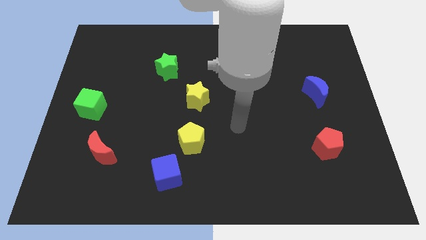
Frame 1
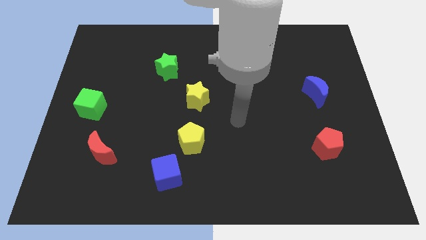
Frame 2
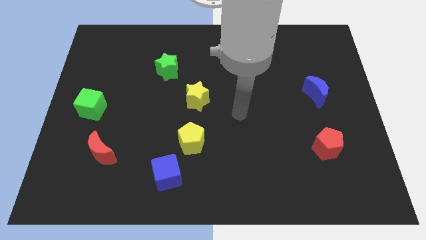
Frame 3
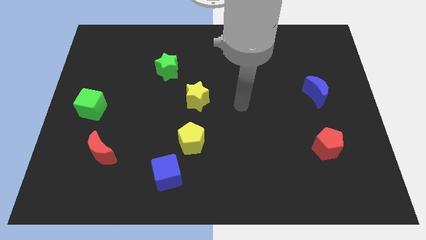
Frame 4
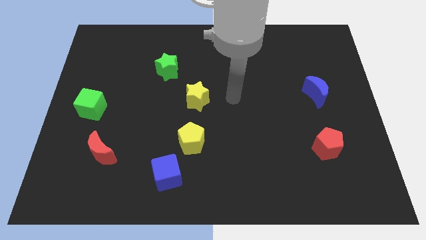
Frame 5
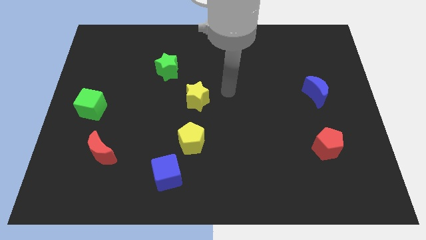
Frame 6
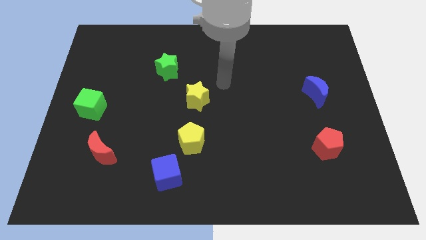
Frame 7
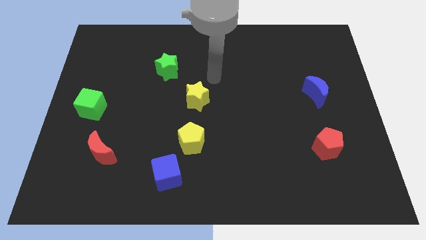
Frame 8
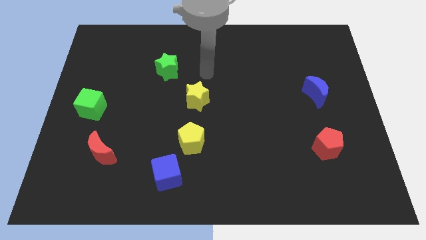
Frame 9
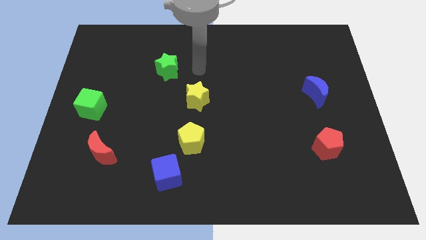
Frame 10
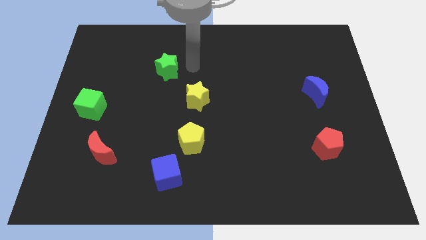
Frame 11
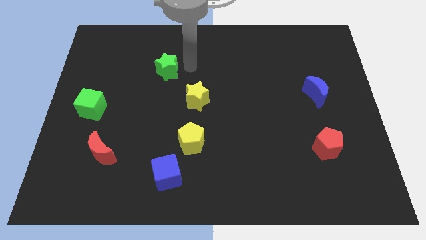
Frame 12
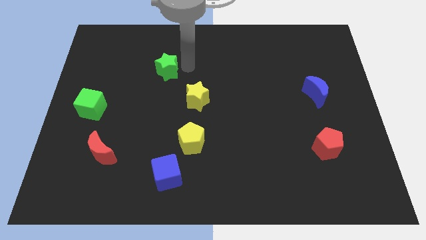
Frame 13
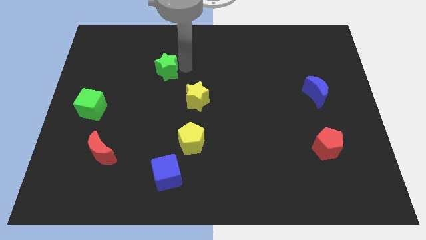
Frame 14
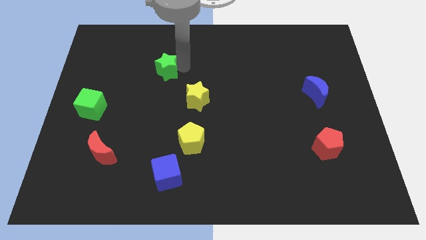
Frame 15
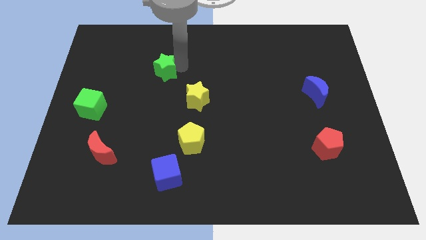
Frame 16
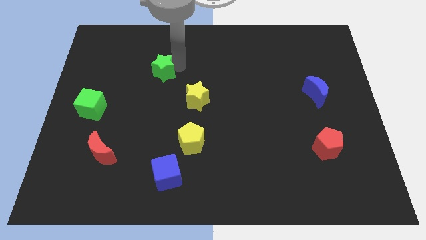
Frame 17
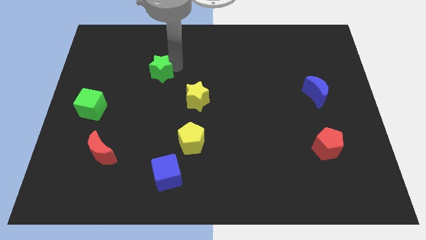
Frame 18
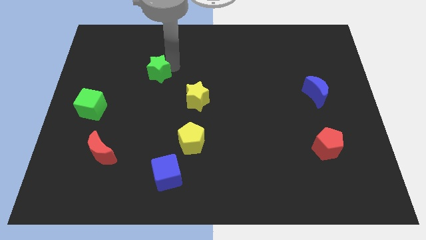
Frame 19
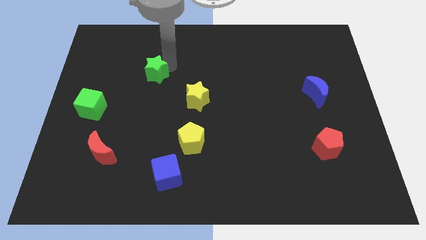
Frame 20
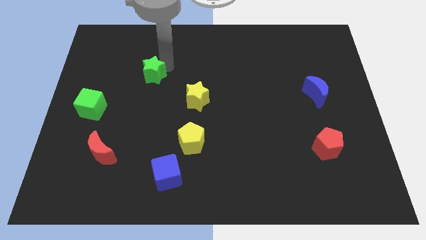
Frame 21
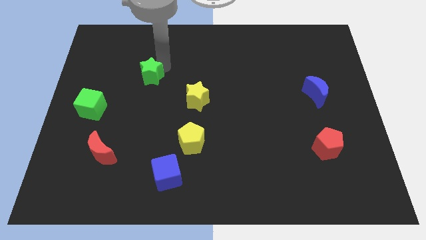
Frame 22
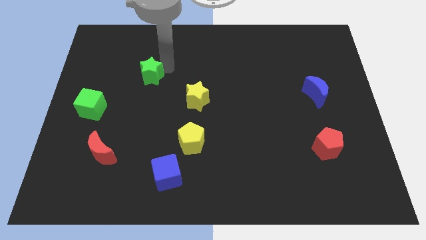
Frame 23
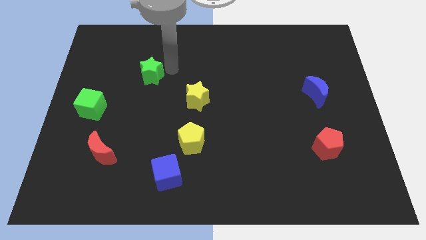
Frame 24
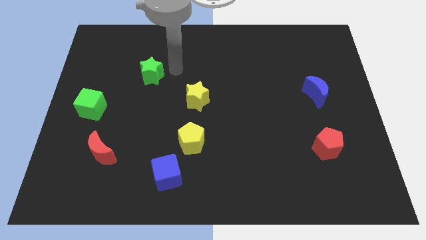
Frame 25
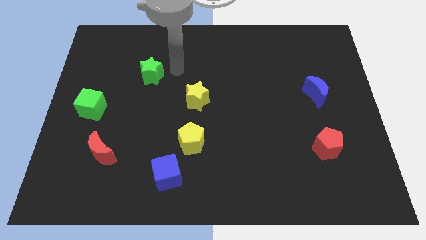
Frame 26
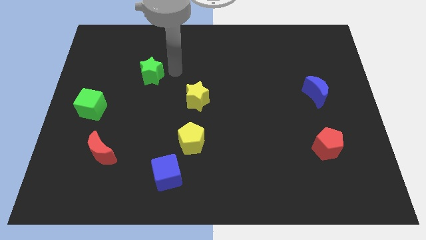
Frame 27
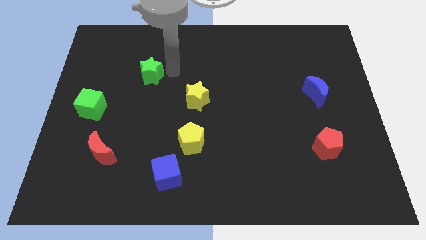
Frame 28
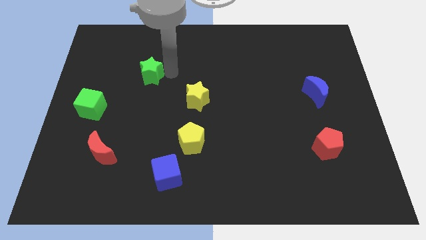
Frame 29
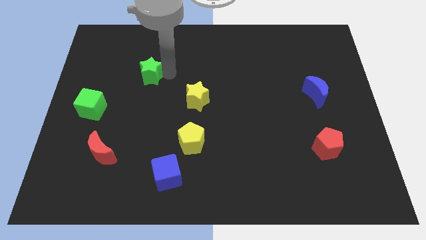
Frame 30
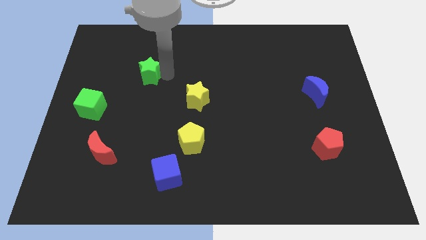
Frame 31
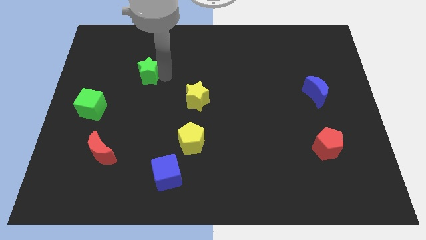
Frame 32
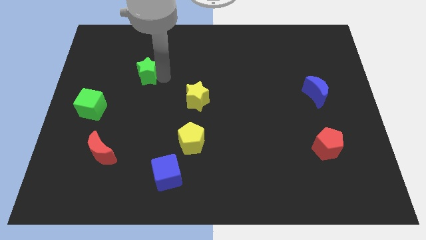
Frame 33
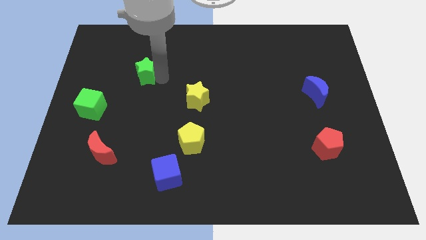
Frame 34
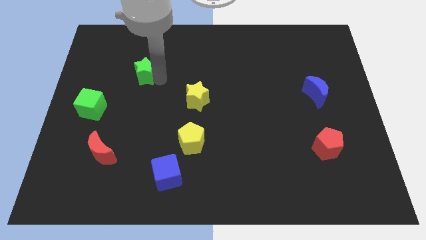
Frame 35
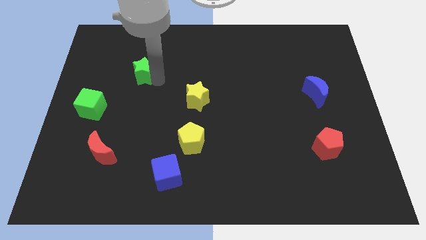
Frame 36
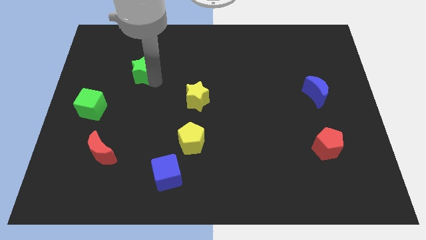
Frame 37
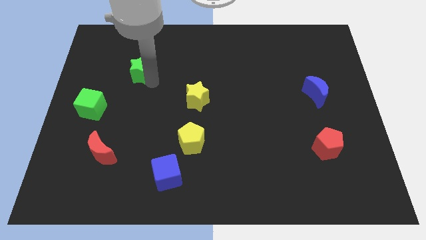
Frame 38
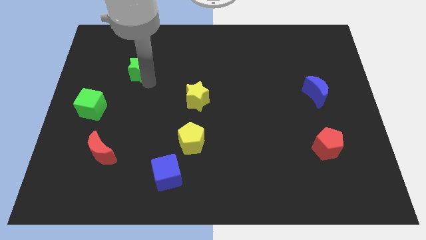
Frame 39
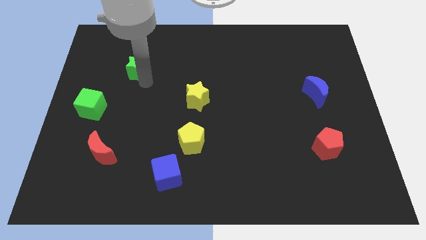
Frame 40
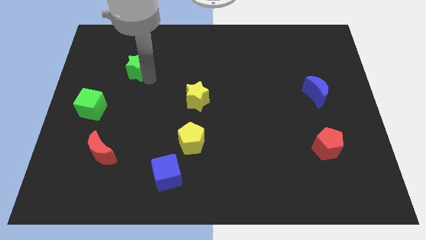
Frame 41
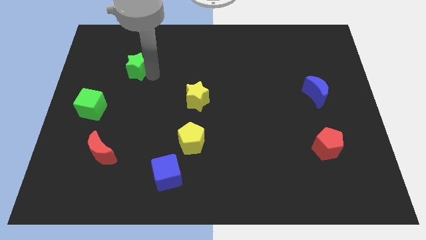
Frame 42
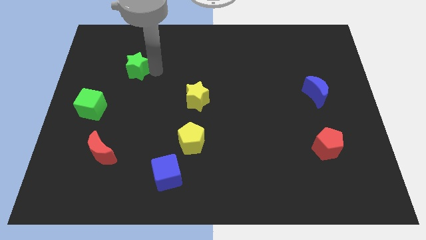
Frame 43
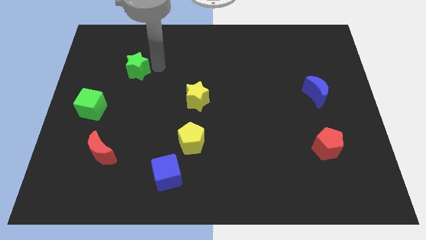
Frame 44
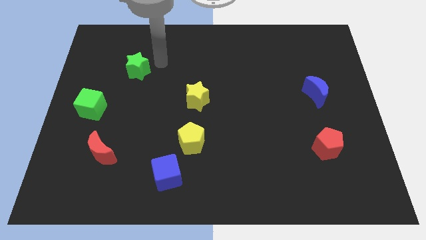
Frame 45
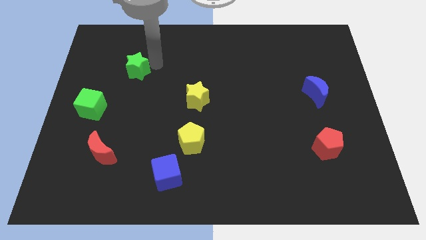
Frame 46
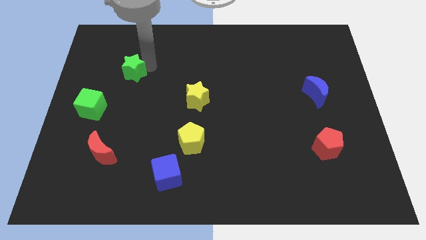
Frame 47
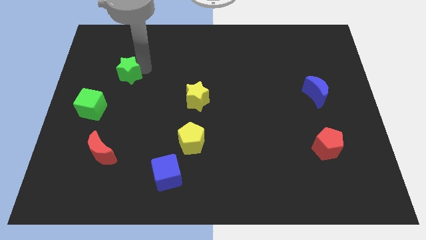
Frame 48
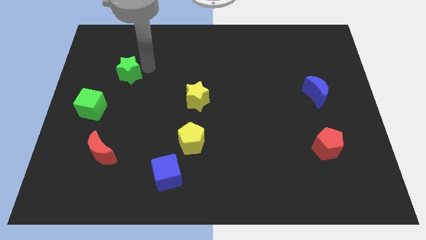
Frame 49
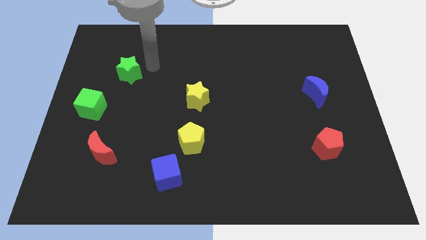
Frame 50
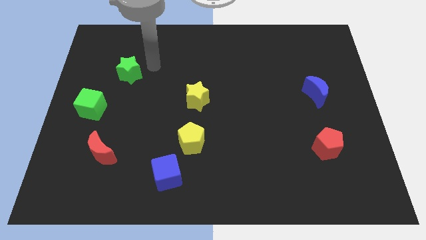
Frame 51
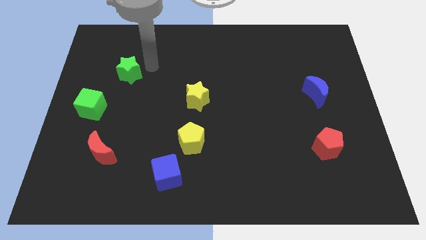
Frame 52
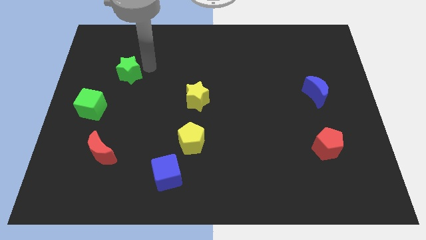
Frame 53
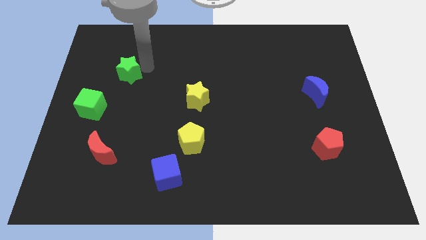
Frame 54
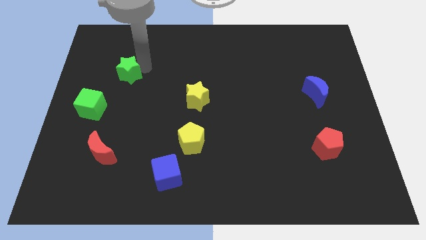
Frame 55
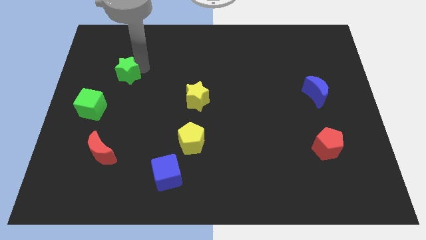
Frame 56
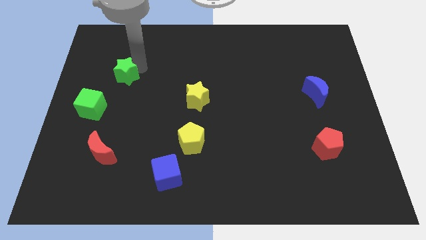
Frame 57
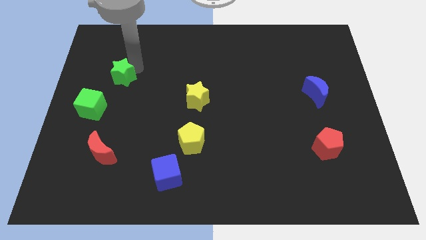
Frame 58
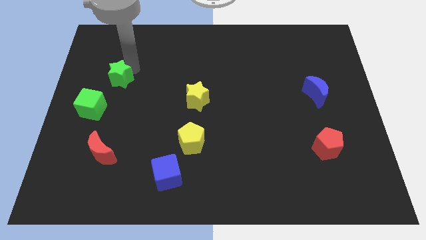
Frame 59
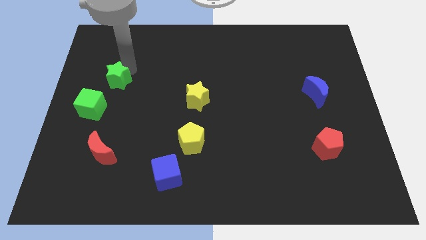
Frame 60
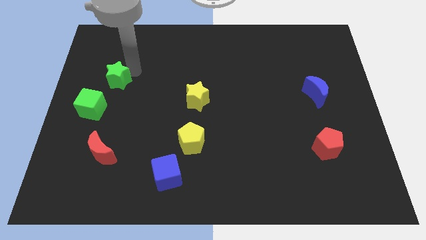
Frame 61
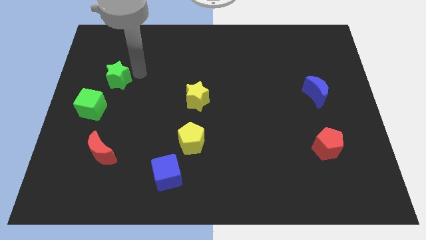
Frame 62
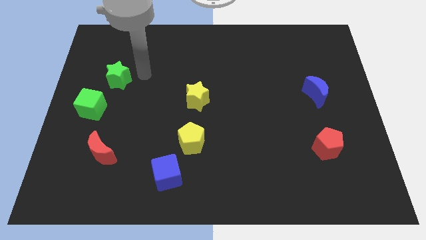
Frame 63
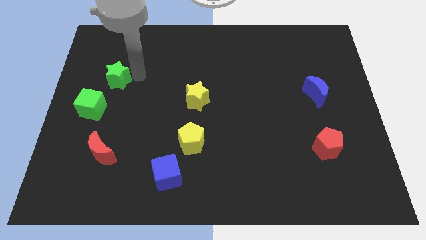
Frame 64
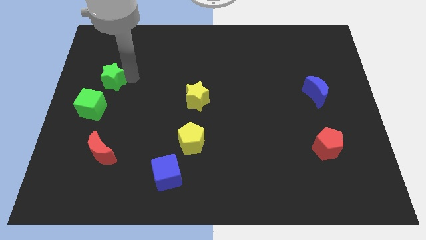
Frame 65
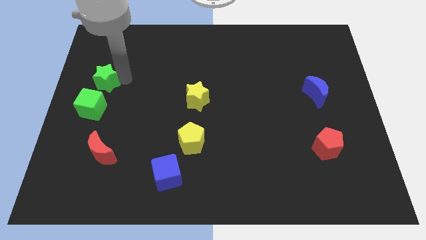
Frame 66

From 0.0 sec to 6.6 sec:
move the green star to the left side of the board

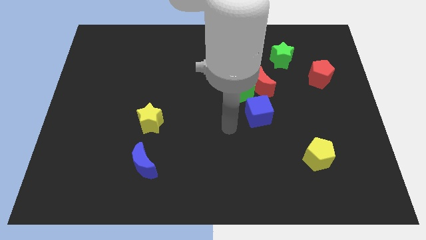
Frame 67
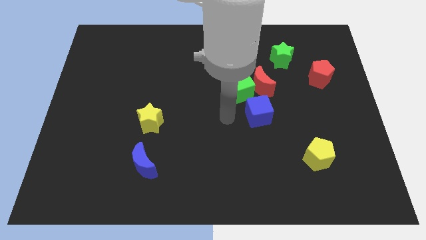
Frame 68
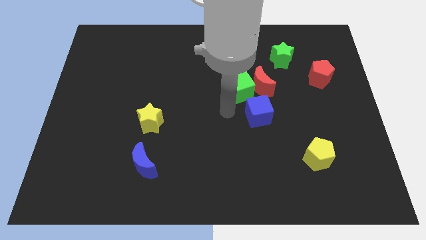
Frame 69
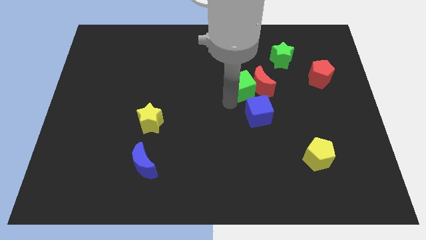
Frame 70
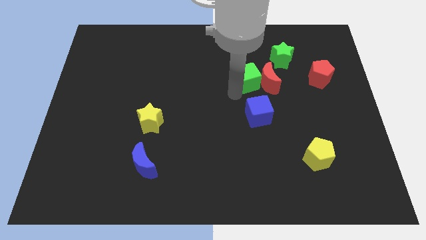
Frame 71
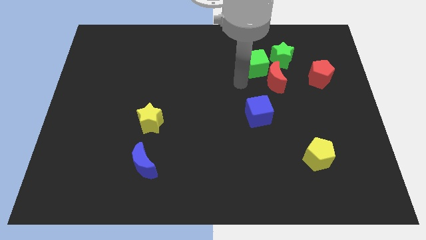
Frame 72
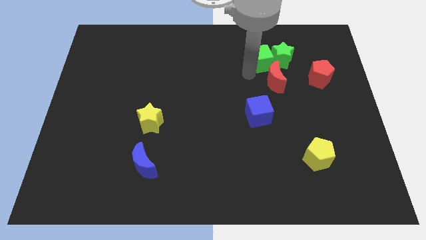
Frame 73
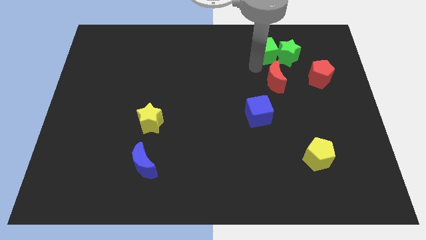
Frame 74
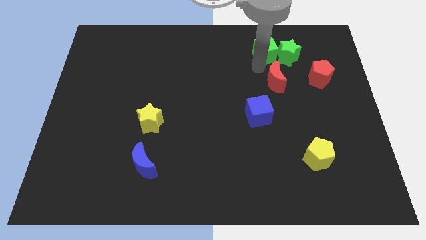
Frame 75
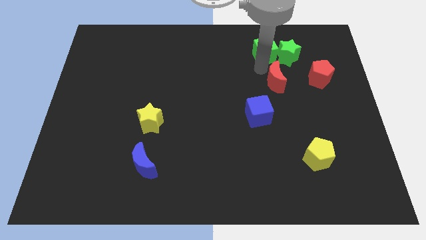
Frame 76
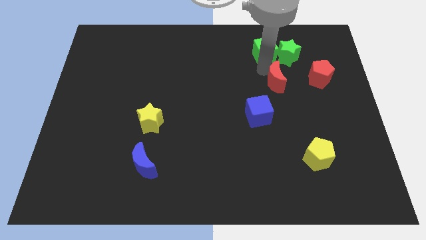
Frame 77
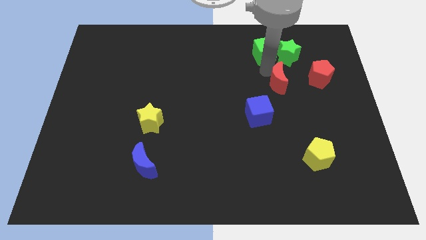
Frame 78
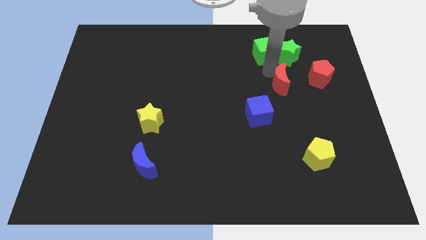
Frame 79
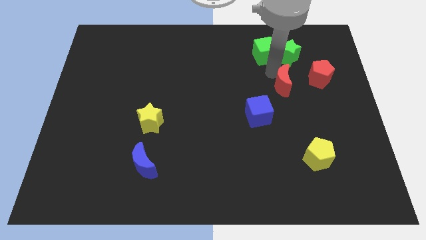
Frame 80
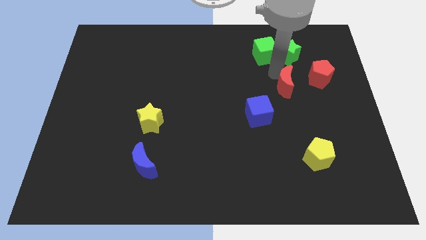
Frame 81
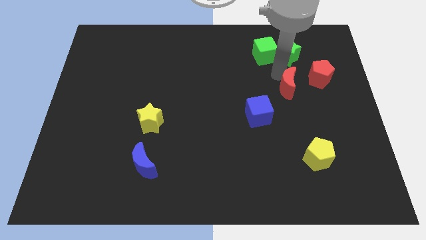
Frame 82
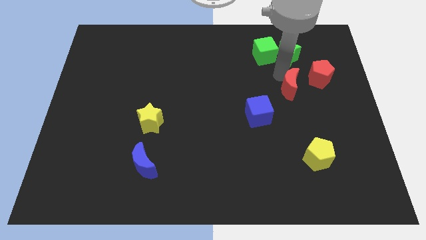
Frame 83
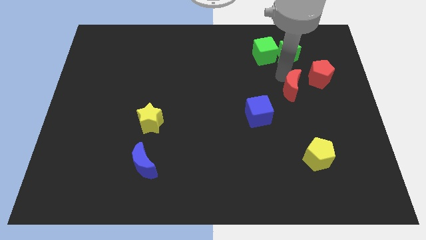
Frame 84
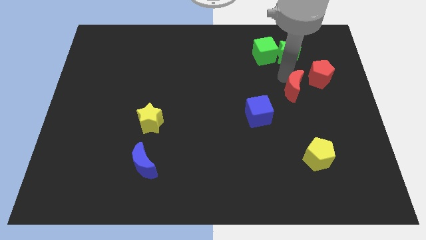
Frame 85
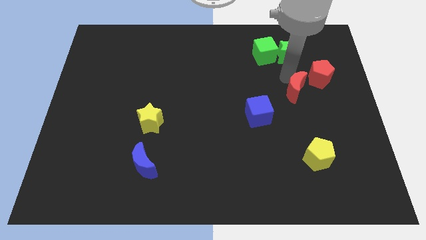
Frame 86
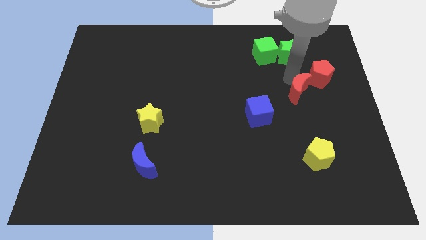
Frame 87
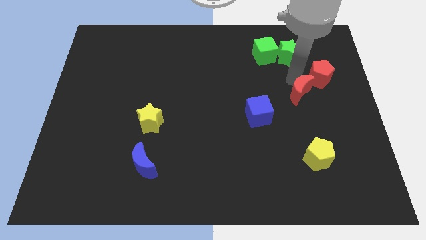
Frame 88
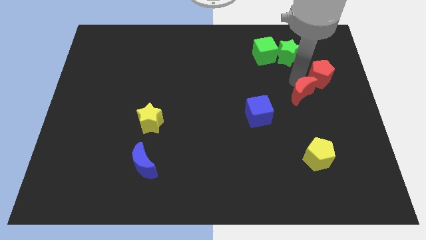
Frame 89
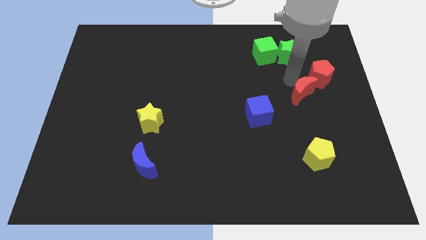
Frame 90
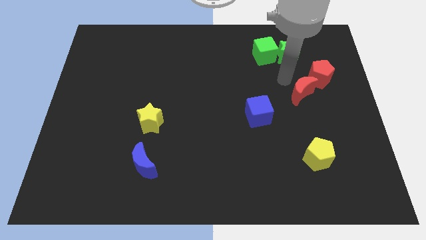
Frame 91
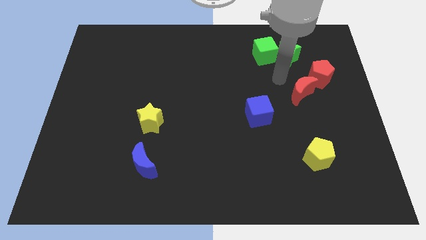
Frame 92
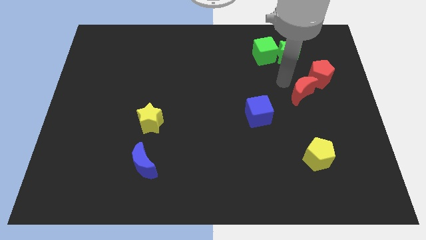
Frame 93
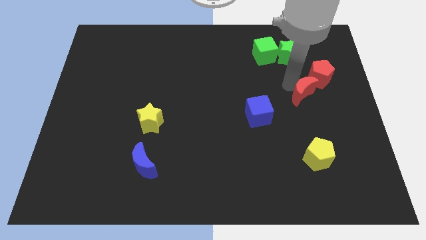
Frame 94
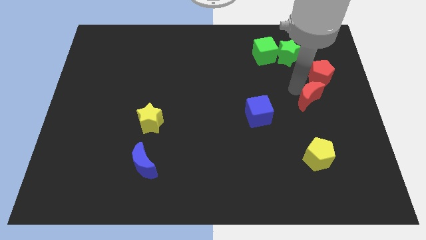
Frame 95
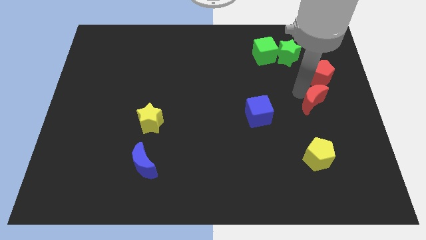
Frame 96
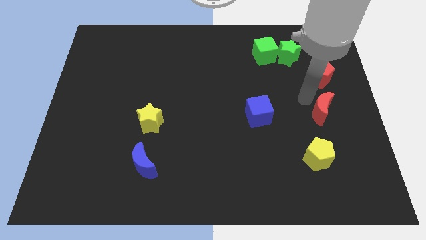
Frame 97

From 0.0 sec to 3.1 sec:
push the red moon to the center right
